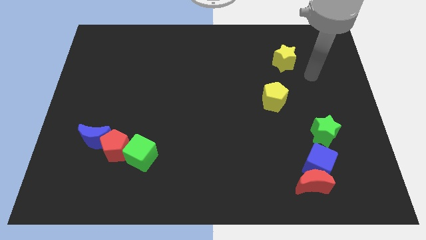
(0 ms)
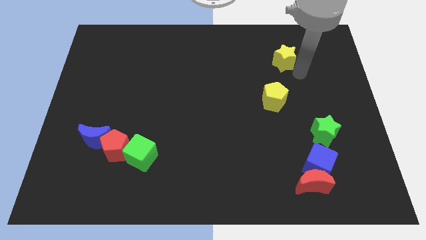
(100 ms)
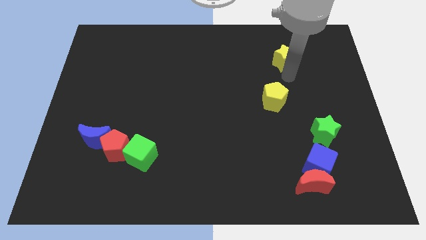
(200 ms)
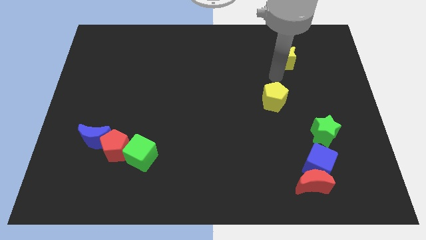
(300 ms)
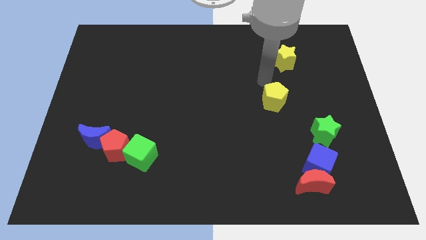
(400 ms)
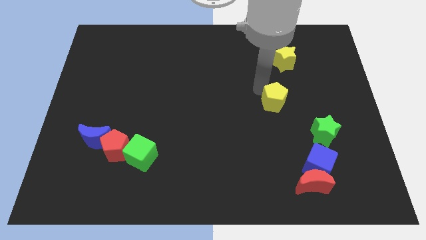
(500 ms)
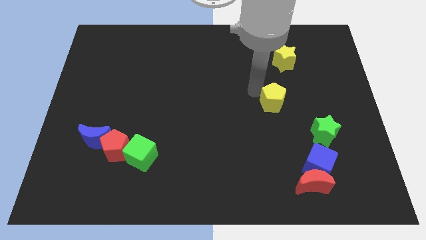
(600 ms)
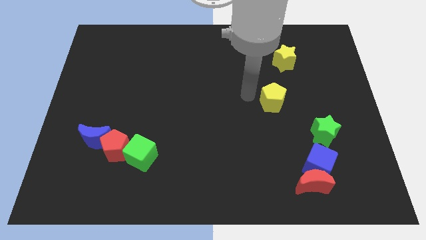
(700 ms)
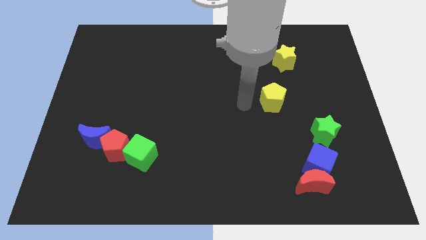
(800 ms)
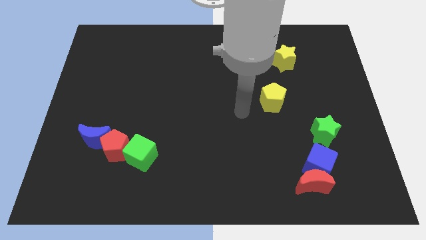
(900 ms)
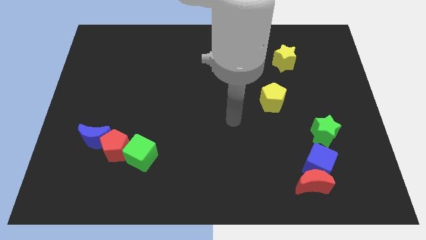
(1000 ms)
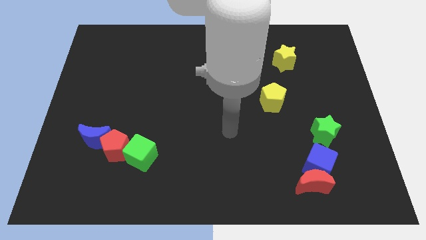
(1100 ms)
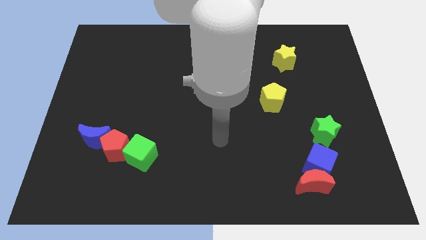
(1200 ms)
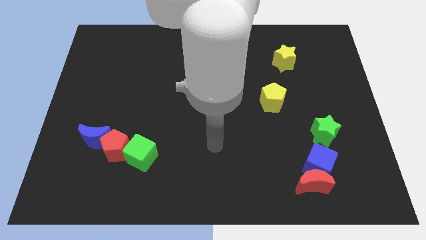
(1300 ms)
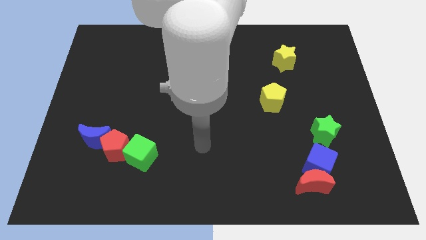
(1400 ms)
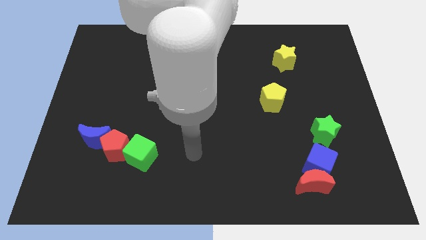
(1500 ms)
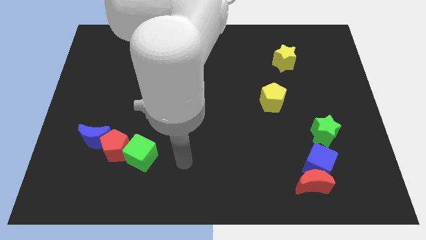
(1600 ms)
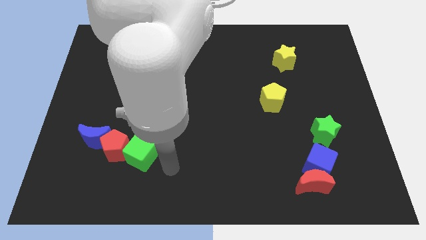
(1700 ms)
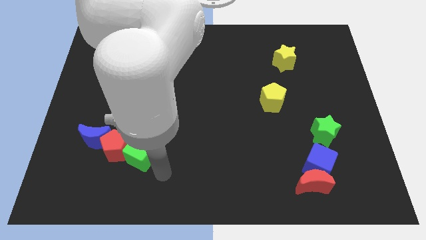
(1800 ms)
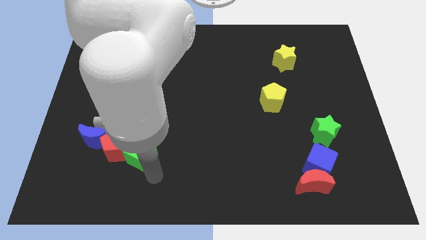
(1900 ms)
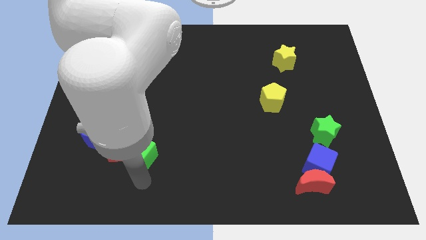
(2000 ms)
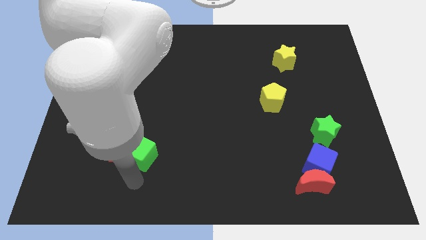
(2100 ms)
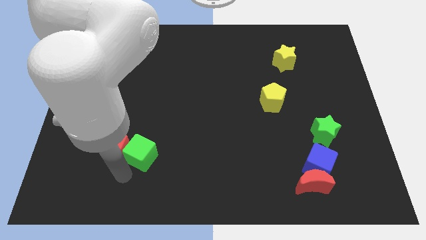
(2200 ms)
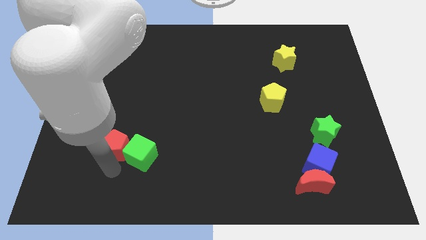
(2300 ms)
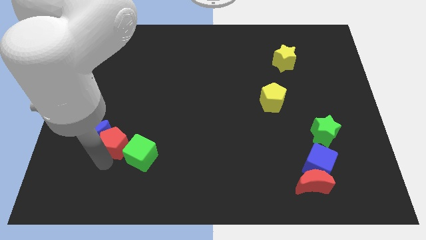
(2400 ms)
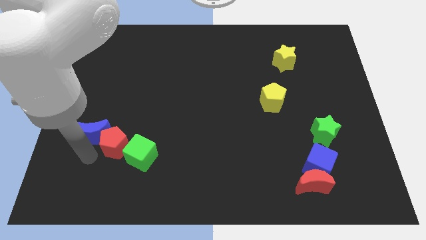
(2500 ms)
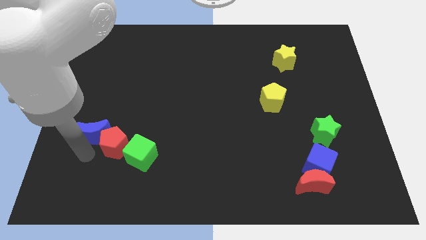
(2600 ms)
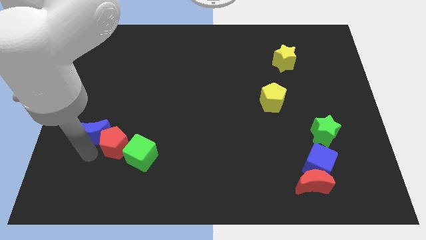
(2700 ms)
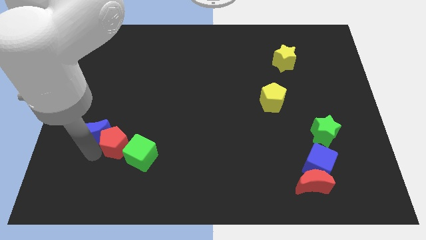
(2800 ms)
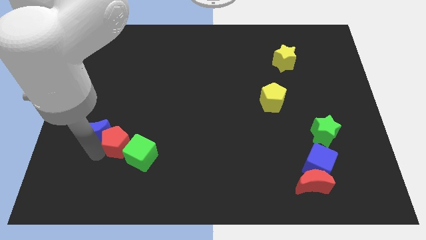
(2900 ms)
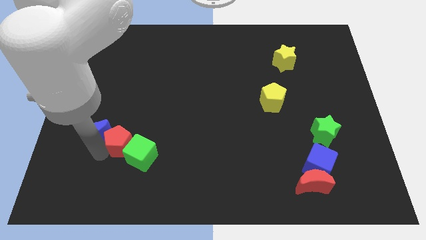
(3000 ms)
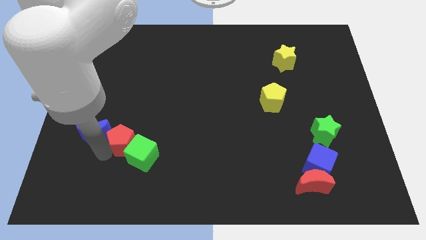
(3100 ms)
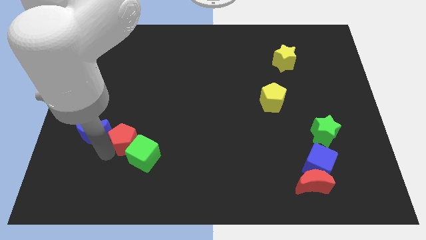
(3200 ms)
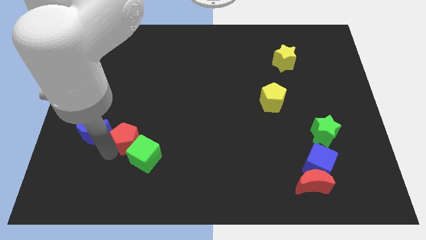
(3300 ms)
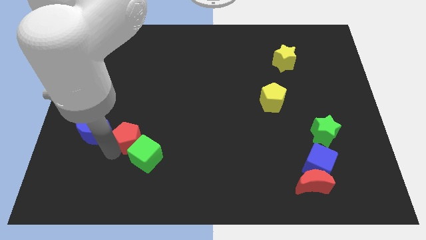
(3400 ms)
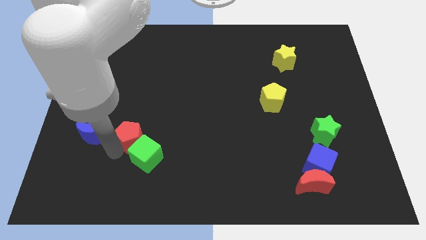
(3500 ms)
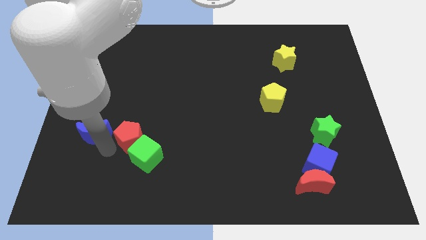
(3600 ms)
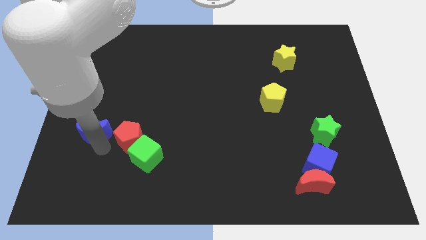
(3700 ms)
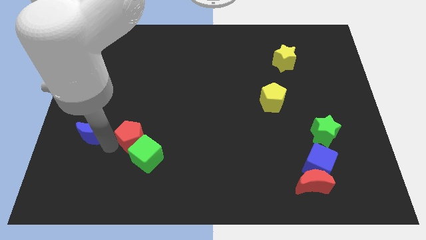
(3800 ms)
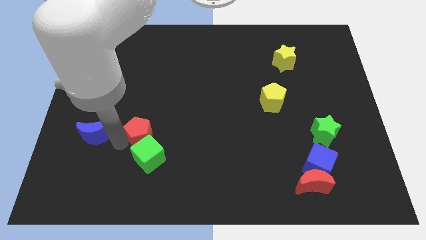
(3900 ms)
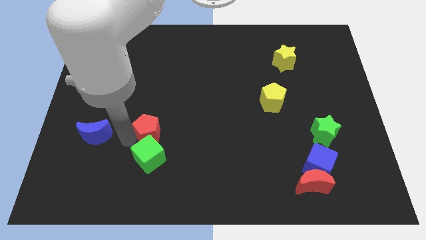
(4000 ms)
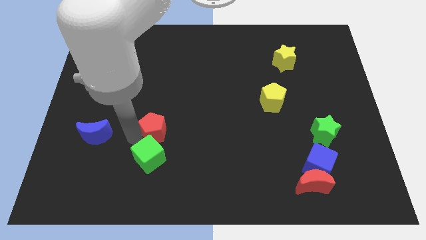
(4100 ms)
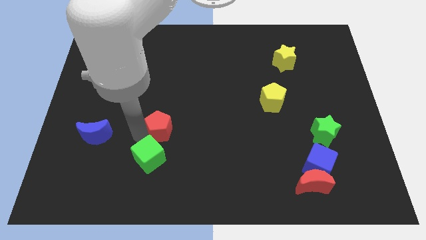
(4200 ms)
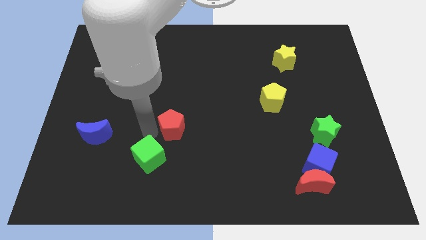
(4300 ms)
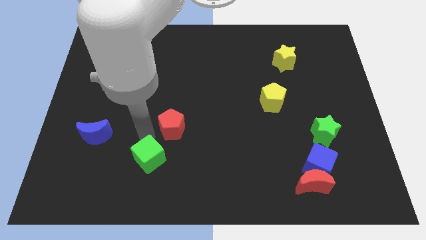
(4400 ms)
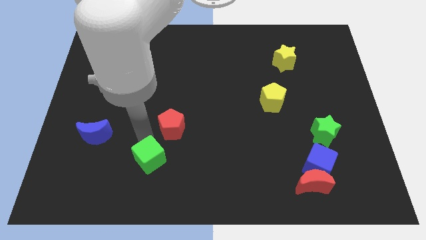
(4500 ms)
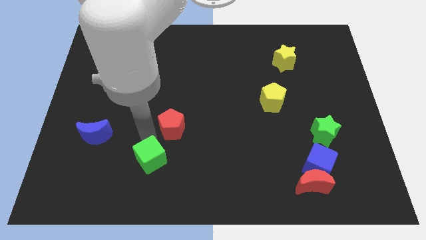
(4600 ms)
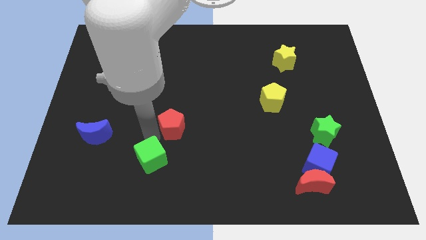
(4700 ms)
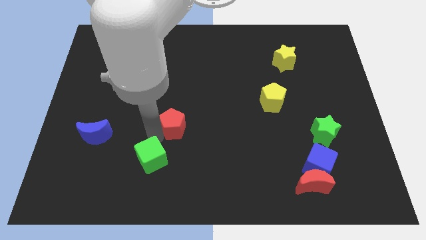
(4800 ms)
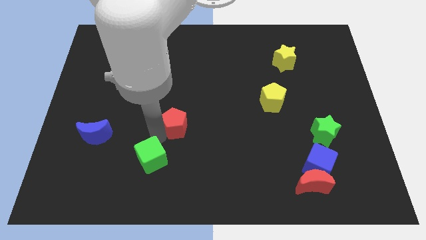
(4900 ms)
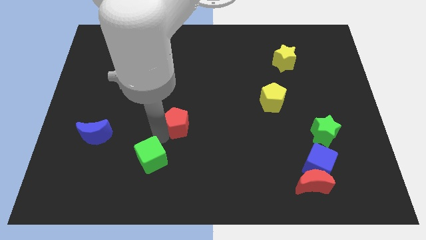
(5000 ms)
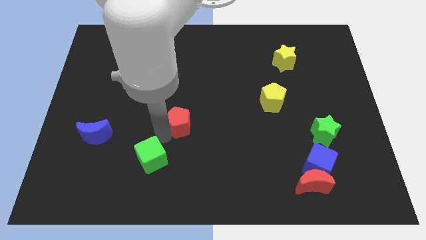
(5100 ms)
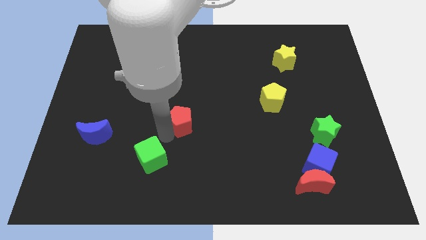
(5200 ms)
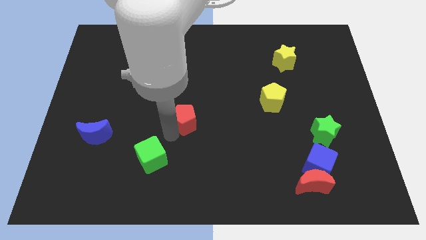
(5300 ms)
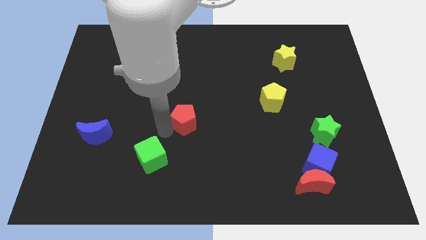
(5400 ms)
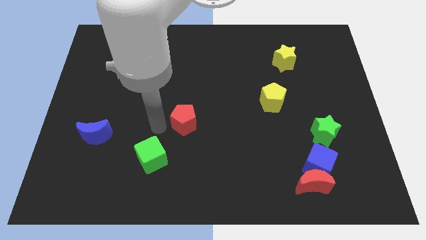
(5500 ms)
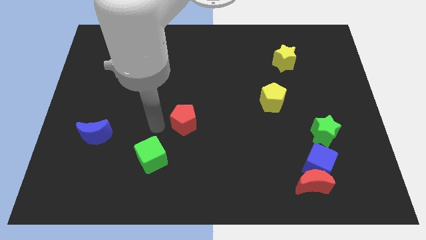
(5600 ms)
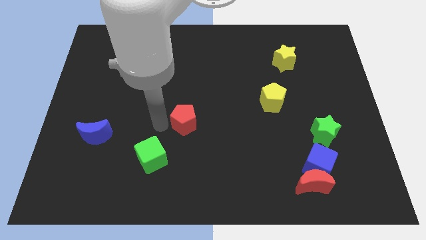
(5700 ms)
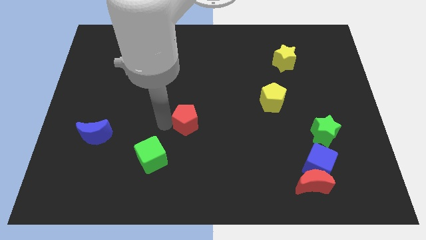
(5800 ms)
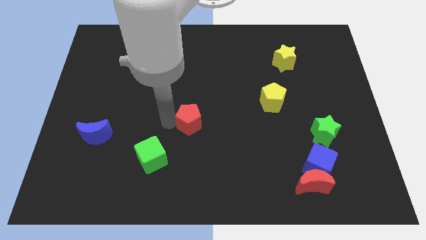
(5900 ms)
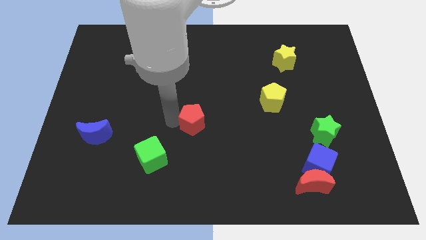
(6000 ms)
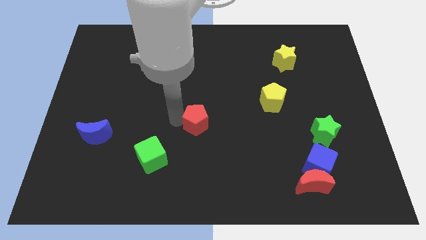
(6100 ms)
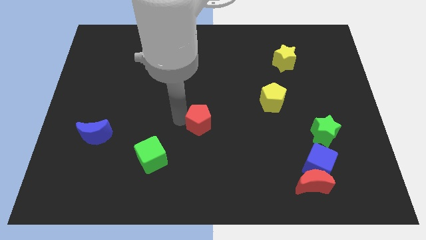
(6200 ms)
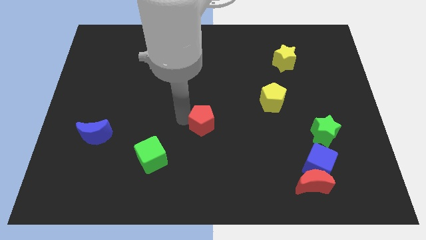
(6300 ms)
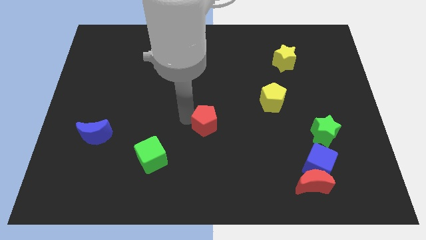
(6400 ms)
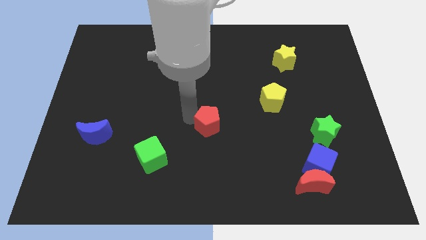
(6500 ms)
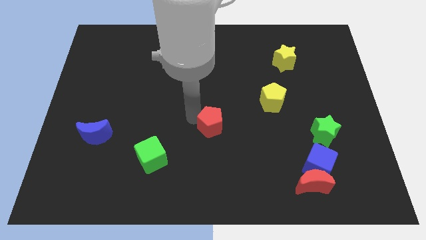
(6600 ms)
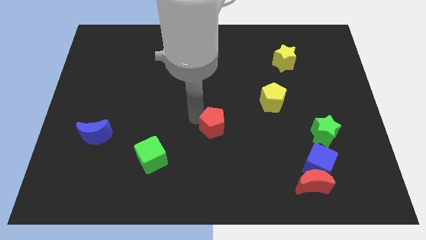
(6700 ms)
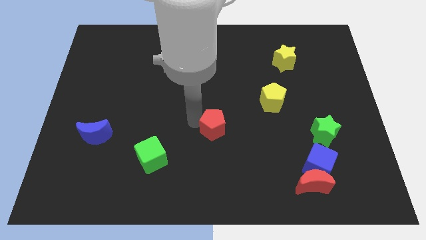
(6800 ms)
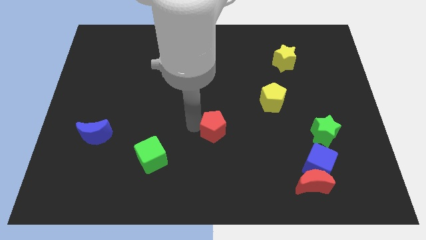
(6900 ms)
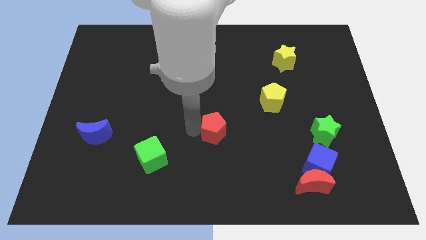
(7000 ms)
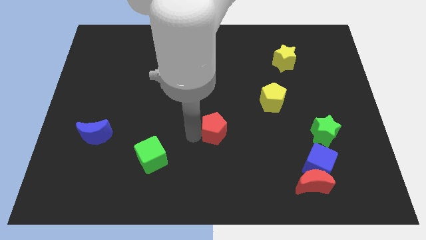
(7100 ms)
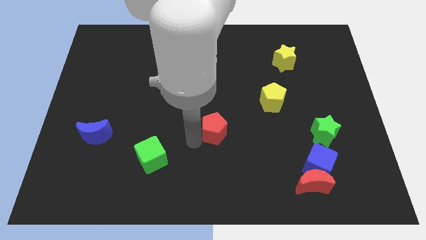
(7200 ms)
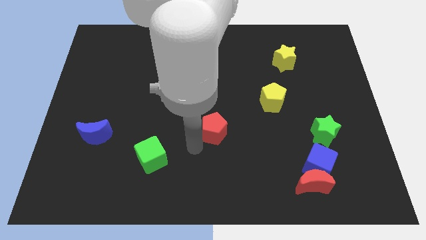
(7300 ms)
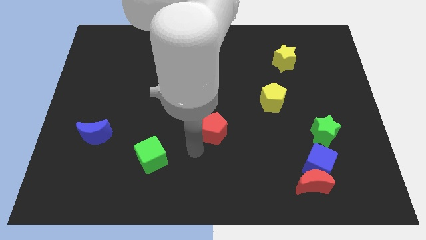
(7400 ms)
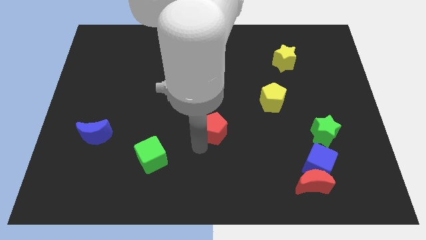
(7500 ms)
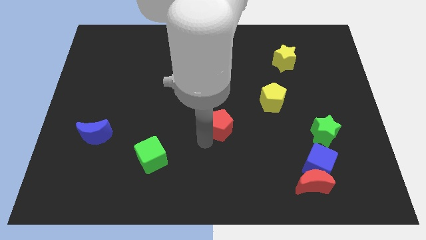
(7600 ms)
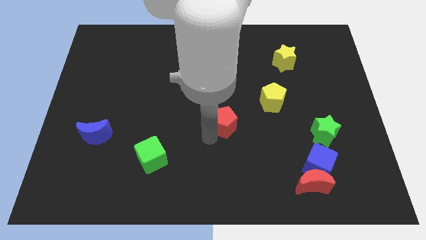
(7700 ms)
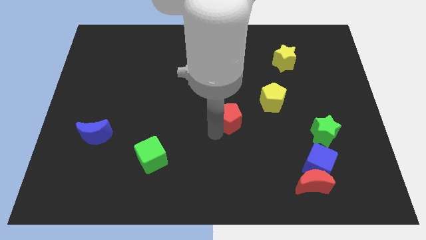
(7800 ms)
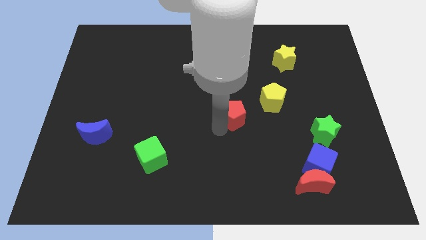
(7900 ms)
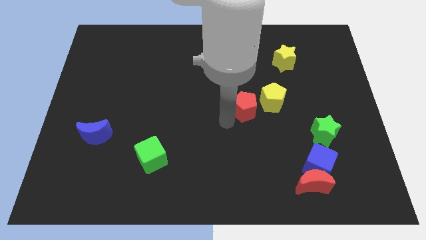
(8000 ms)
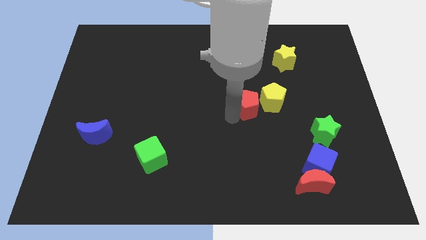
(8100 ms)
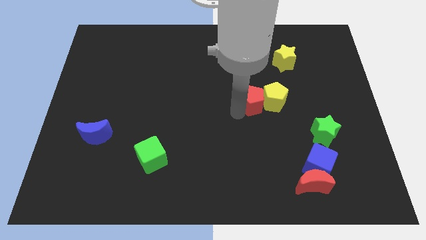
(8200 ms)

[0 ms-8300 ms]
move the red pentagon to the yellow pentagon
